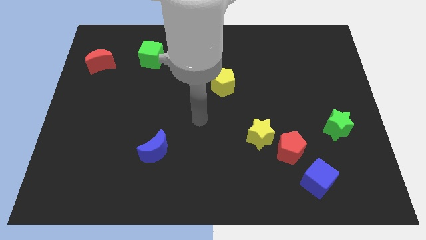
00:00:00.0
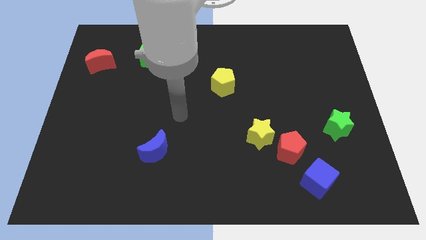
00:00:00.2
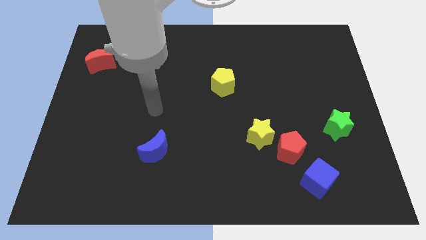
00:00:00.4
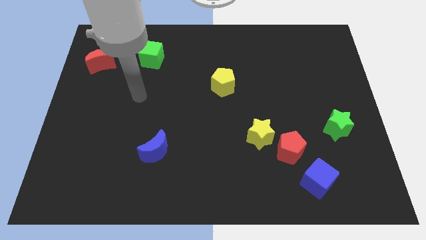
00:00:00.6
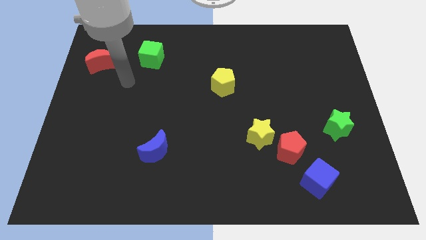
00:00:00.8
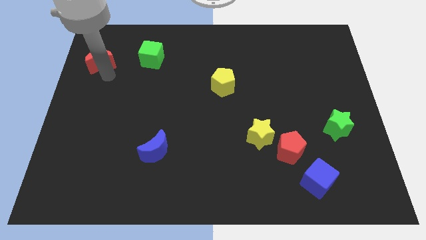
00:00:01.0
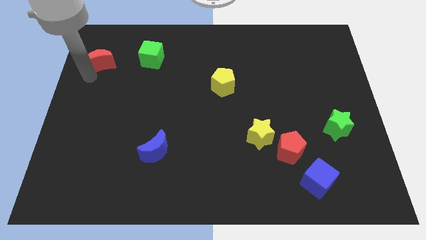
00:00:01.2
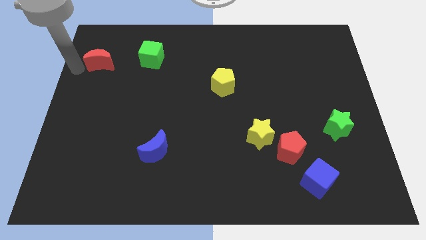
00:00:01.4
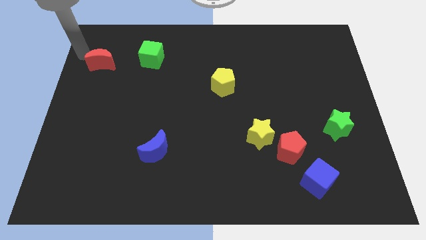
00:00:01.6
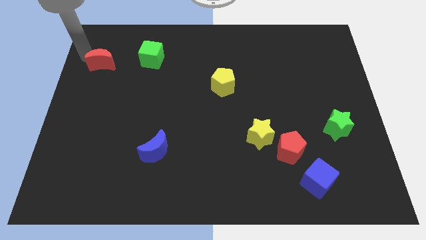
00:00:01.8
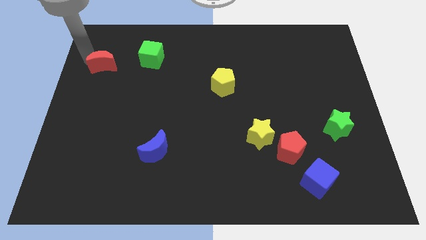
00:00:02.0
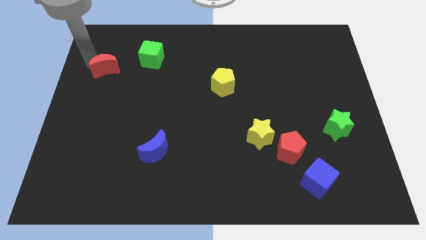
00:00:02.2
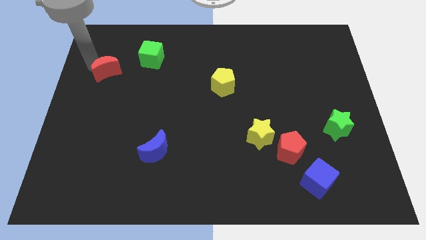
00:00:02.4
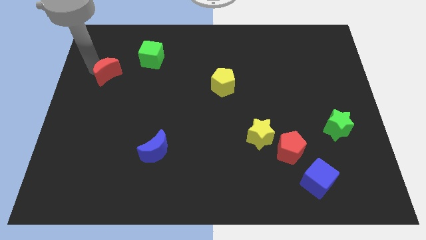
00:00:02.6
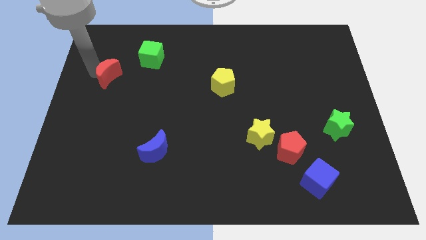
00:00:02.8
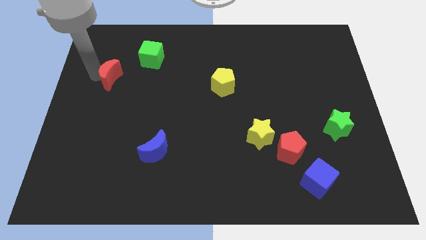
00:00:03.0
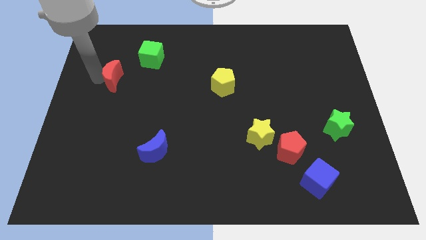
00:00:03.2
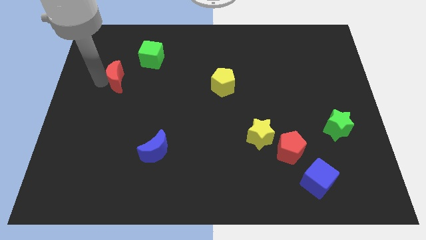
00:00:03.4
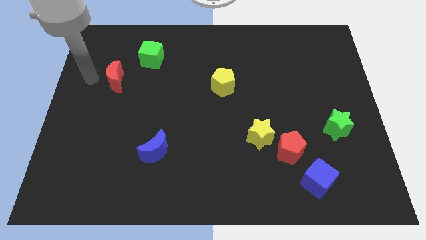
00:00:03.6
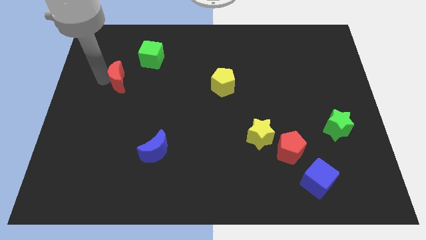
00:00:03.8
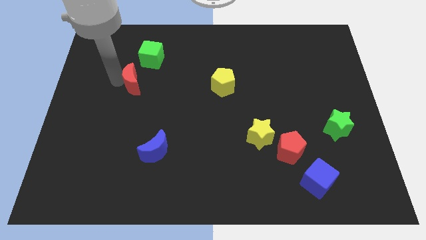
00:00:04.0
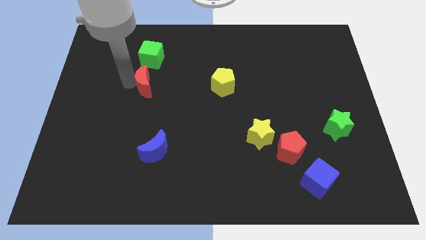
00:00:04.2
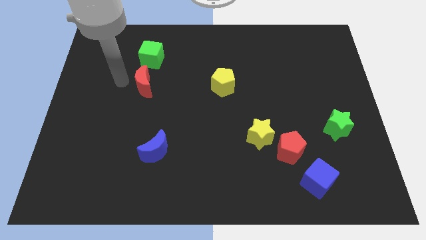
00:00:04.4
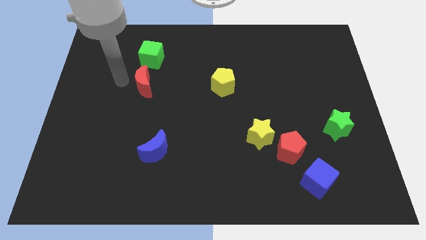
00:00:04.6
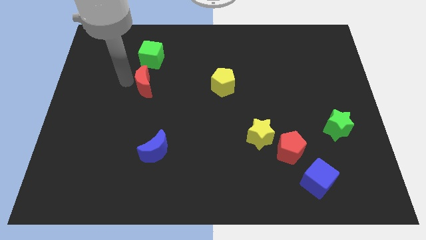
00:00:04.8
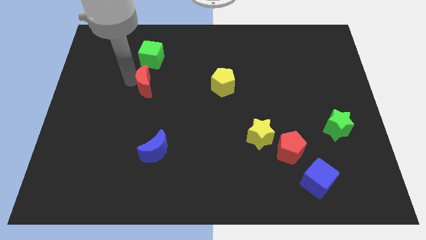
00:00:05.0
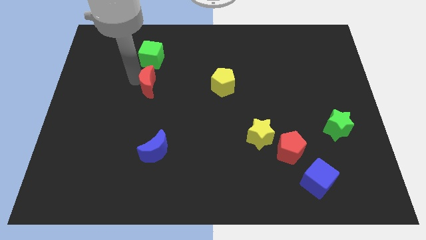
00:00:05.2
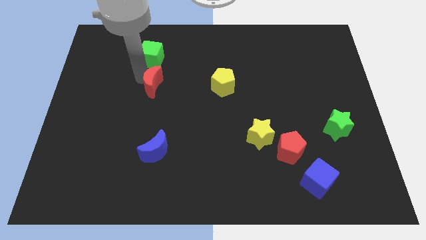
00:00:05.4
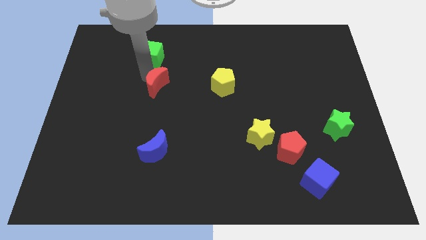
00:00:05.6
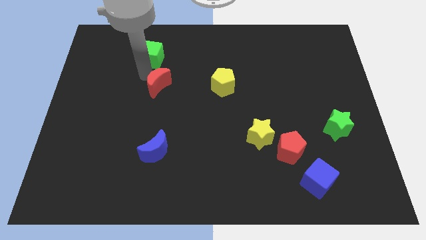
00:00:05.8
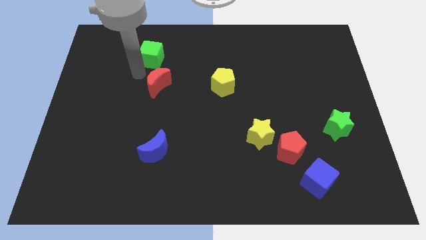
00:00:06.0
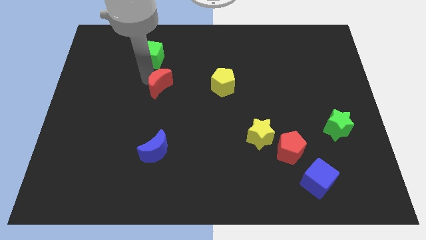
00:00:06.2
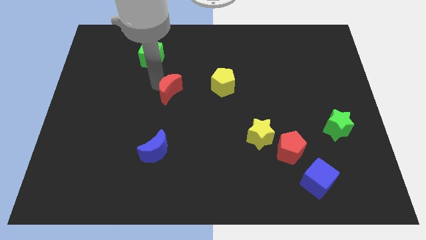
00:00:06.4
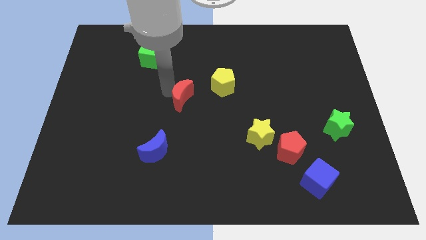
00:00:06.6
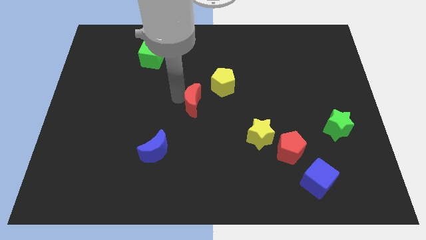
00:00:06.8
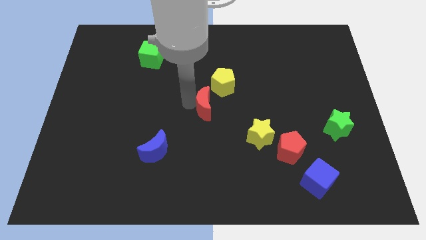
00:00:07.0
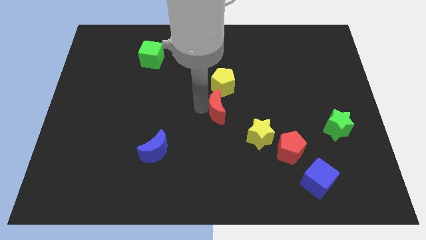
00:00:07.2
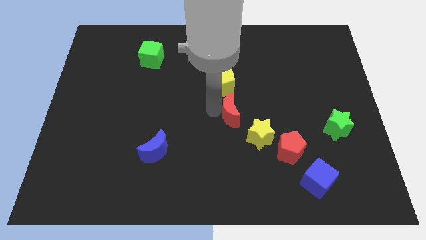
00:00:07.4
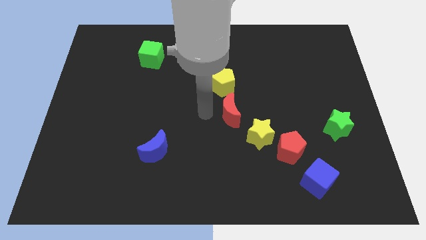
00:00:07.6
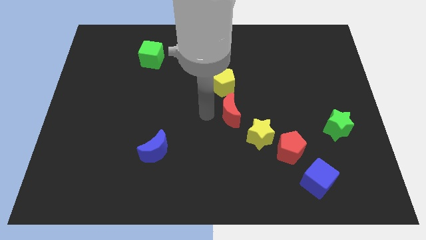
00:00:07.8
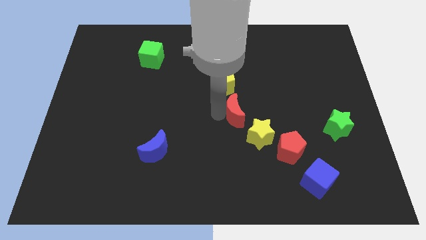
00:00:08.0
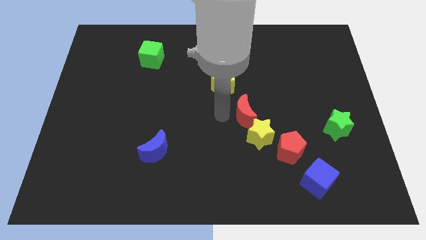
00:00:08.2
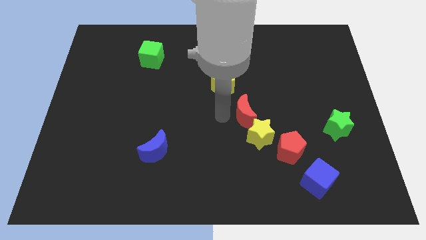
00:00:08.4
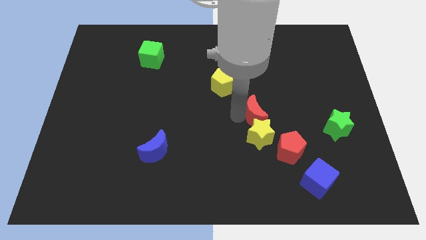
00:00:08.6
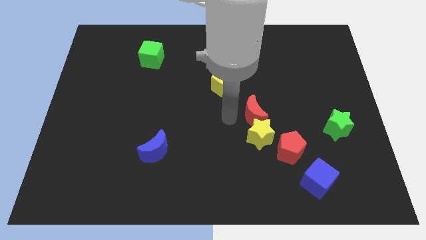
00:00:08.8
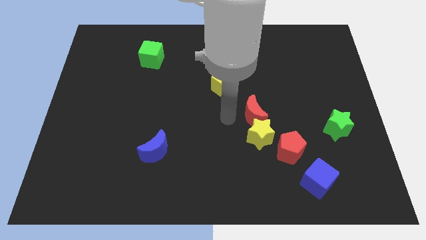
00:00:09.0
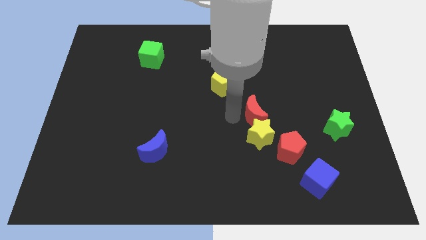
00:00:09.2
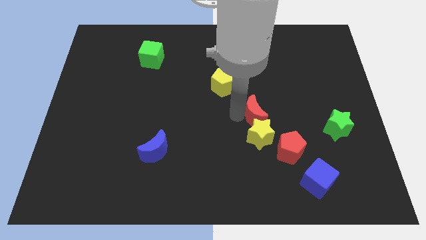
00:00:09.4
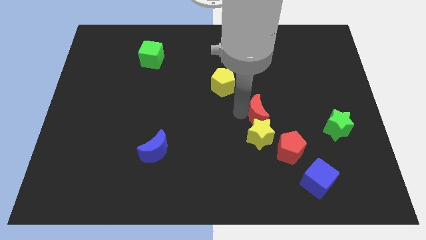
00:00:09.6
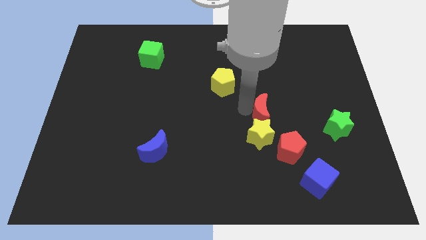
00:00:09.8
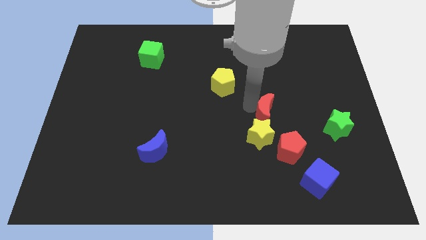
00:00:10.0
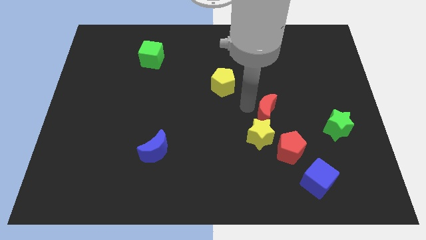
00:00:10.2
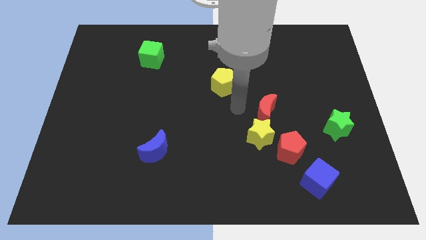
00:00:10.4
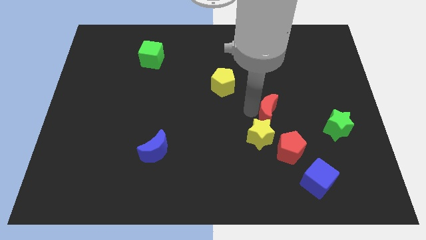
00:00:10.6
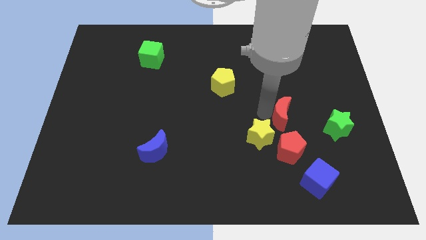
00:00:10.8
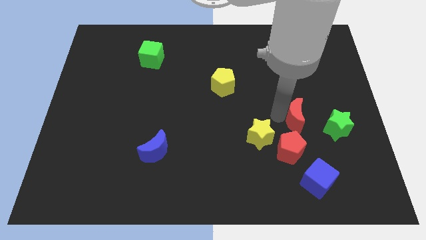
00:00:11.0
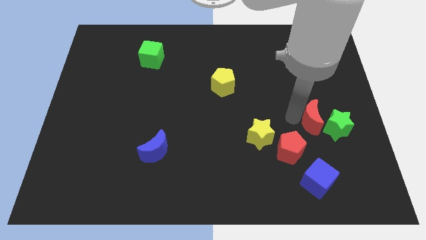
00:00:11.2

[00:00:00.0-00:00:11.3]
put the red moon towards the green star

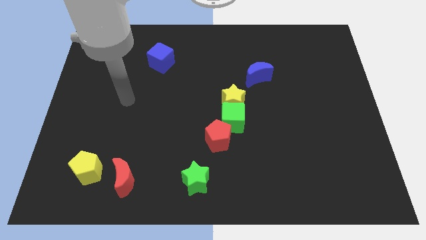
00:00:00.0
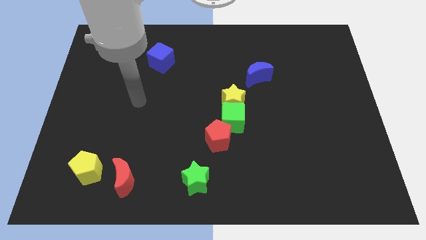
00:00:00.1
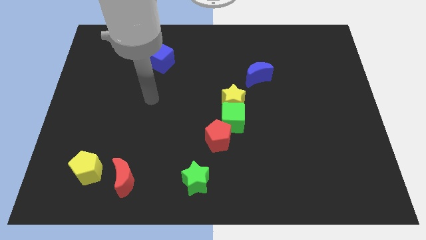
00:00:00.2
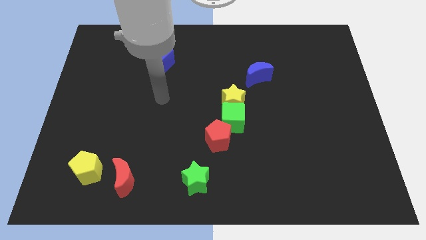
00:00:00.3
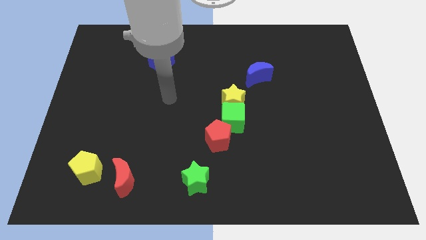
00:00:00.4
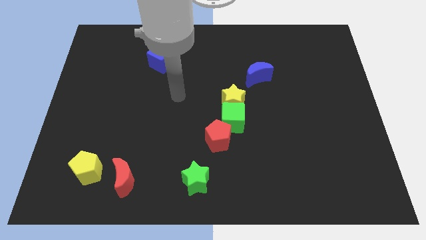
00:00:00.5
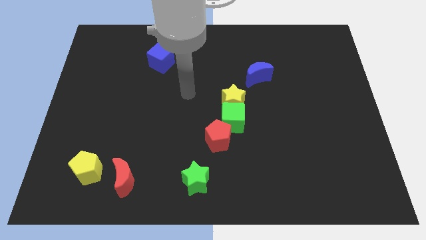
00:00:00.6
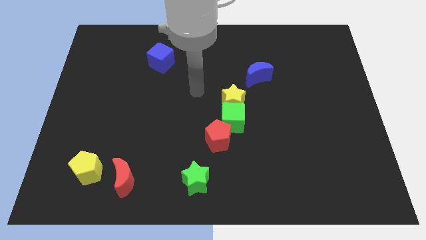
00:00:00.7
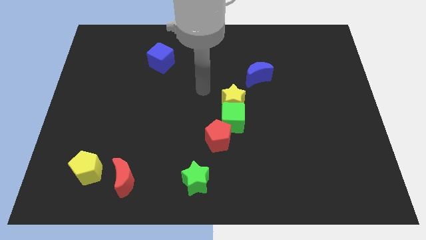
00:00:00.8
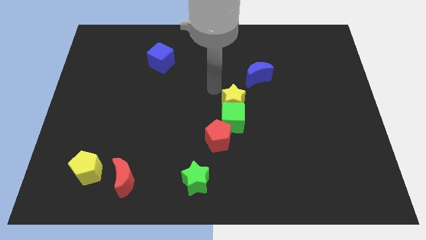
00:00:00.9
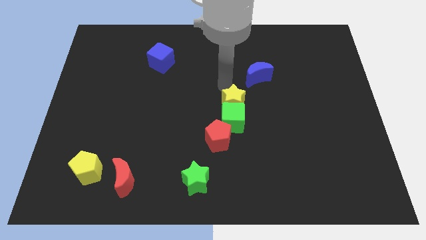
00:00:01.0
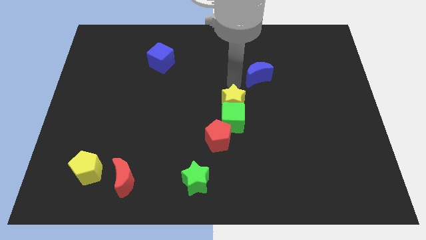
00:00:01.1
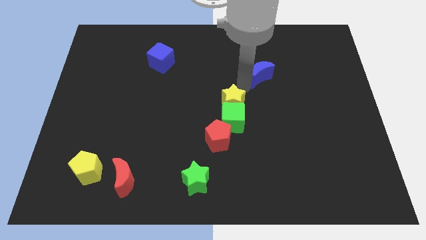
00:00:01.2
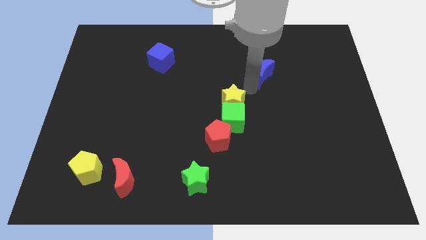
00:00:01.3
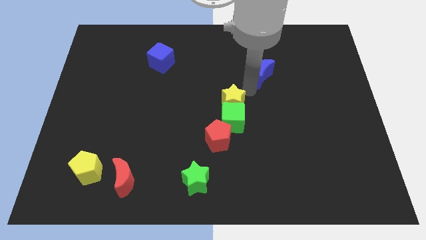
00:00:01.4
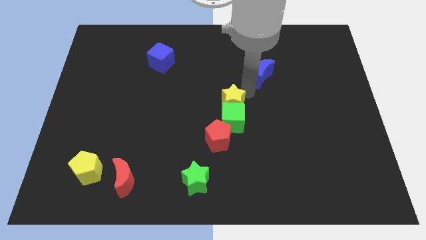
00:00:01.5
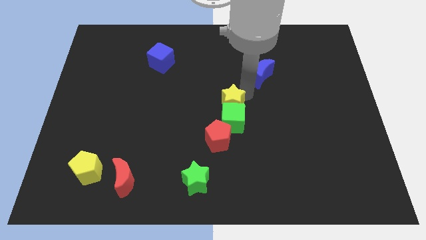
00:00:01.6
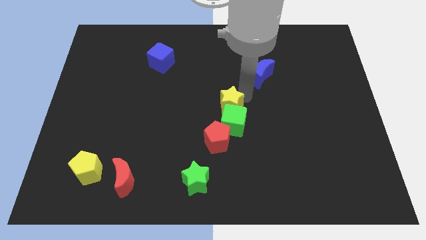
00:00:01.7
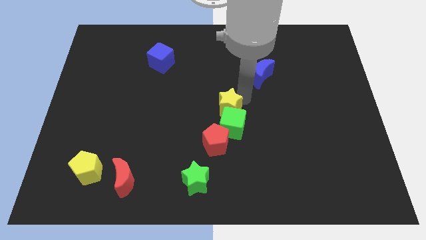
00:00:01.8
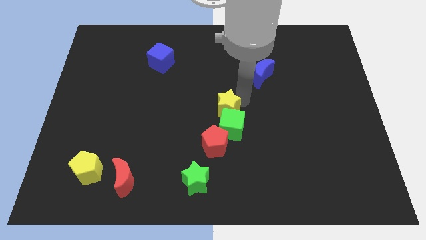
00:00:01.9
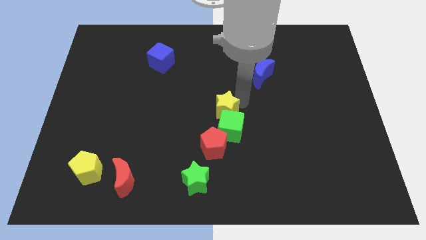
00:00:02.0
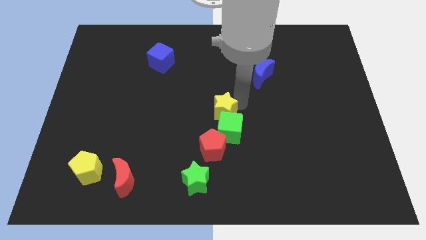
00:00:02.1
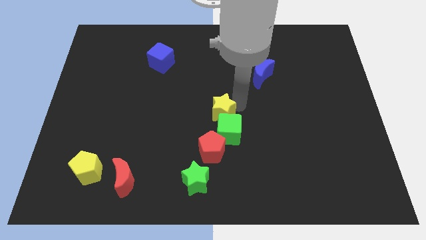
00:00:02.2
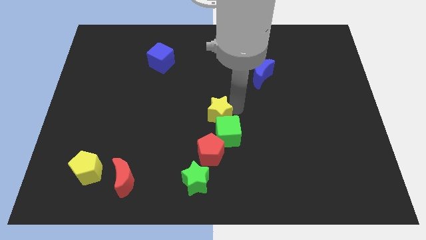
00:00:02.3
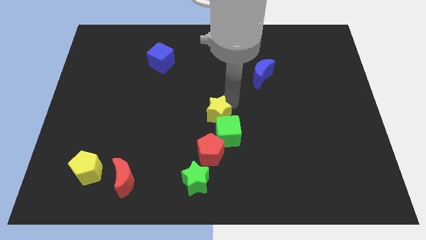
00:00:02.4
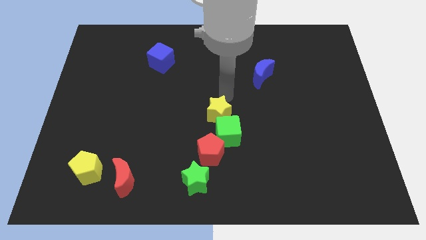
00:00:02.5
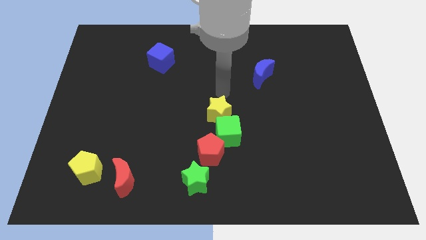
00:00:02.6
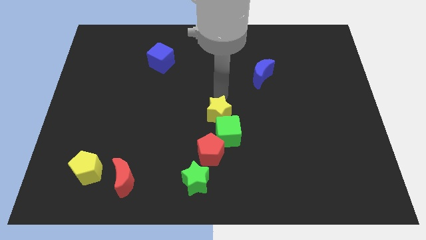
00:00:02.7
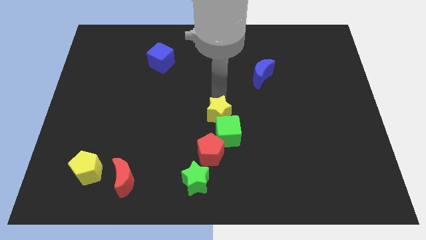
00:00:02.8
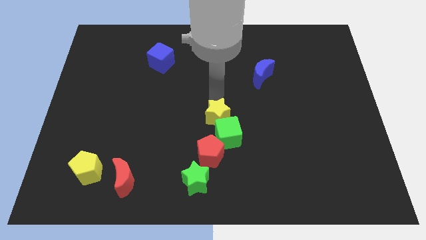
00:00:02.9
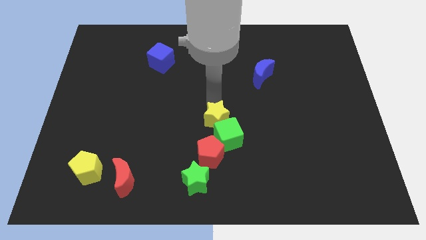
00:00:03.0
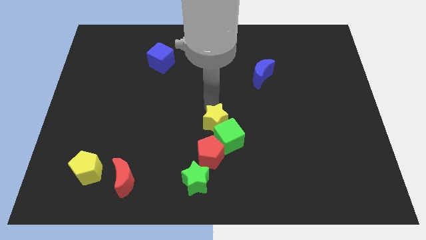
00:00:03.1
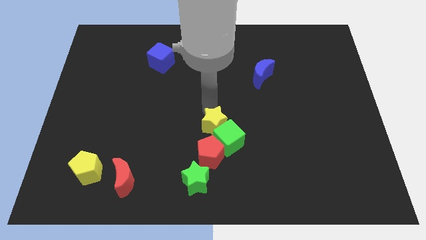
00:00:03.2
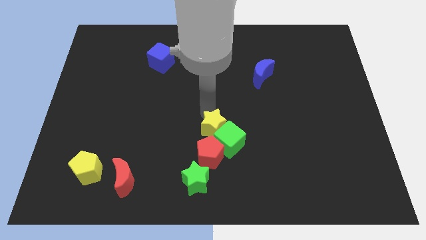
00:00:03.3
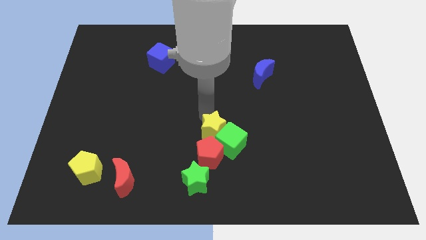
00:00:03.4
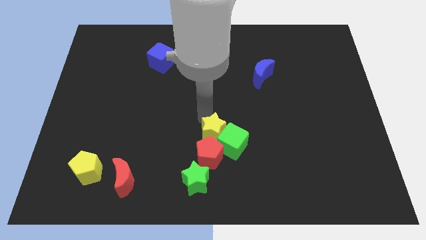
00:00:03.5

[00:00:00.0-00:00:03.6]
push the yellow star towards the red pentagon
